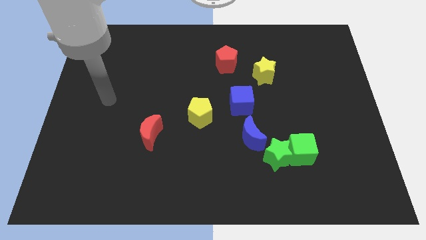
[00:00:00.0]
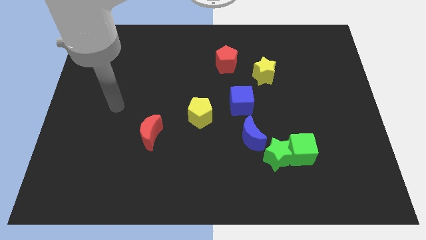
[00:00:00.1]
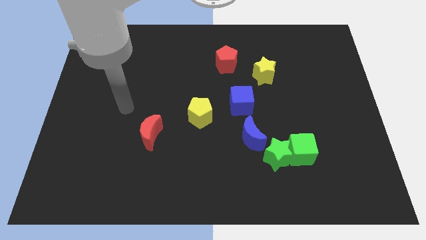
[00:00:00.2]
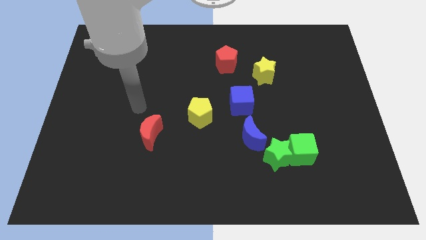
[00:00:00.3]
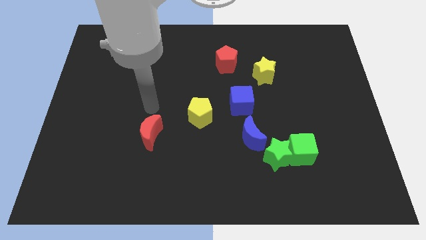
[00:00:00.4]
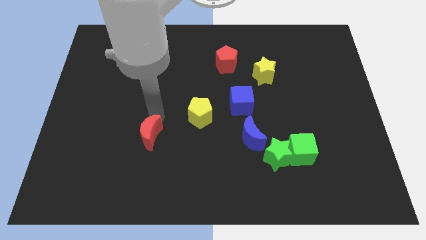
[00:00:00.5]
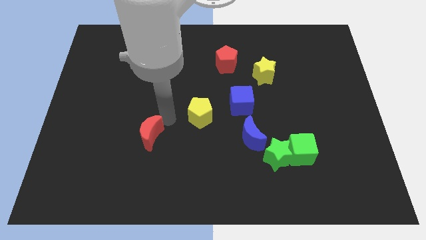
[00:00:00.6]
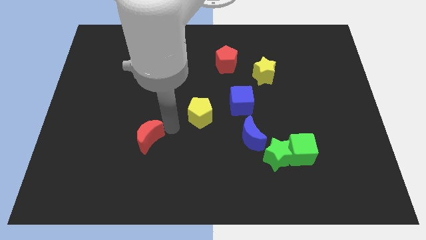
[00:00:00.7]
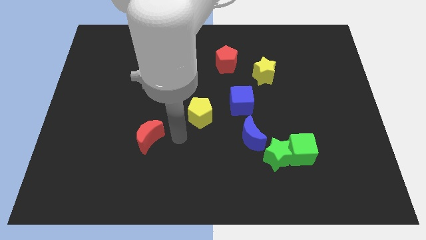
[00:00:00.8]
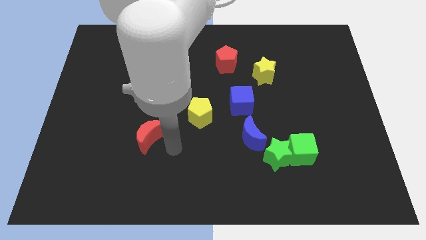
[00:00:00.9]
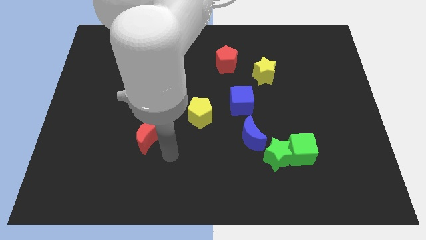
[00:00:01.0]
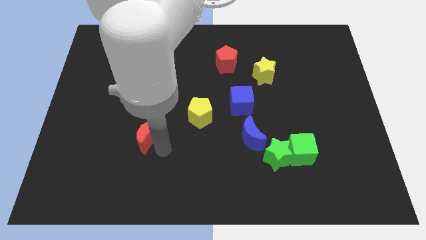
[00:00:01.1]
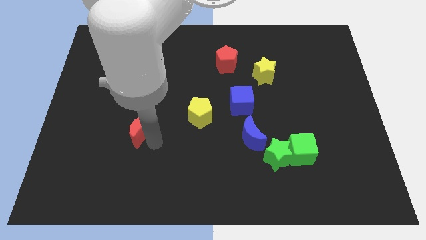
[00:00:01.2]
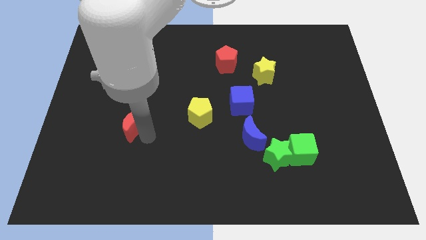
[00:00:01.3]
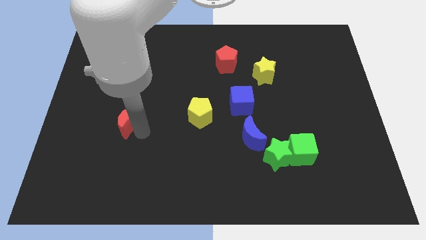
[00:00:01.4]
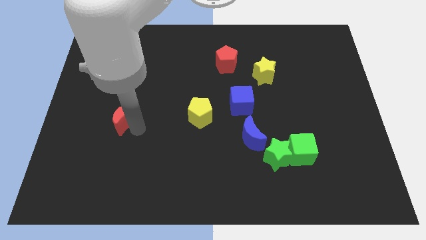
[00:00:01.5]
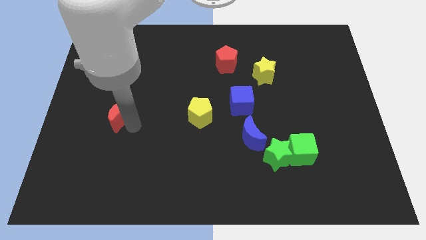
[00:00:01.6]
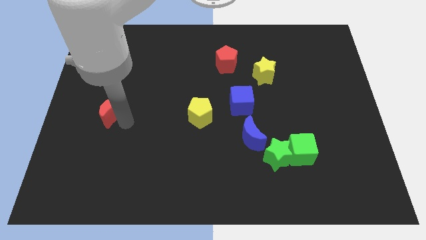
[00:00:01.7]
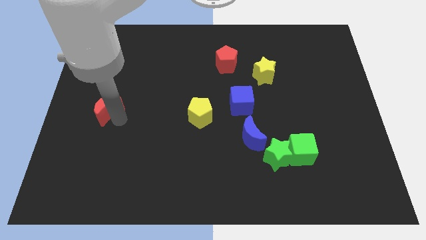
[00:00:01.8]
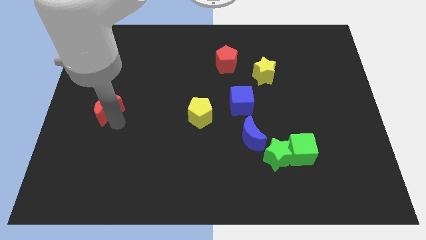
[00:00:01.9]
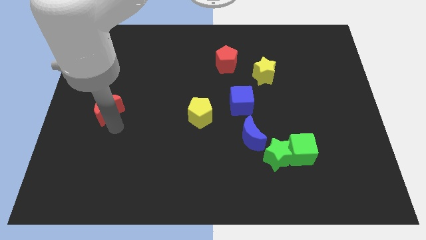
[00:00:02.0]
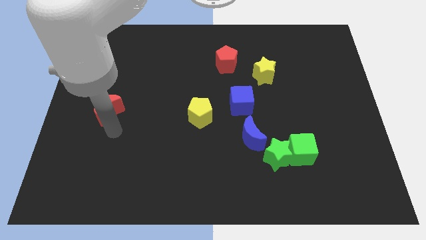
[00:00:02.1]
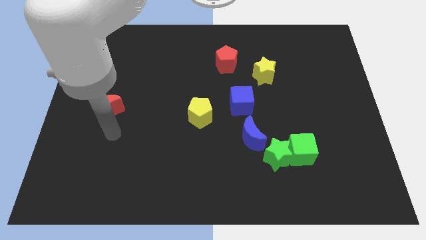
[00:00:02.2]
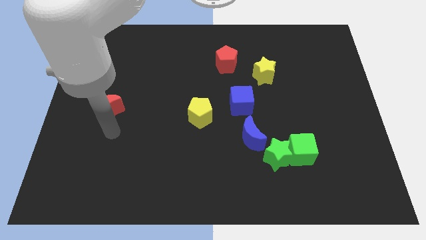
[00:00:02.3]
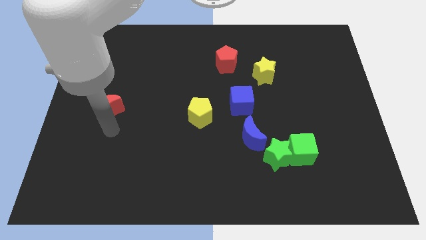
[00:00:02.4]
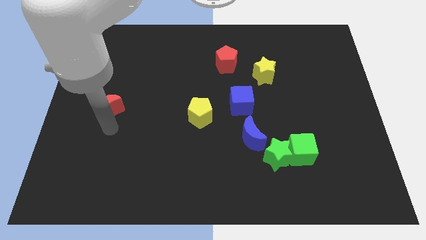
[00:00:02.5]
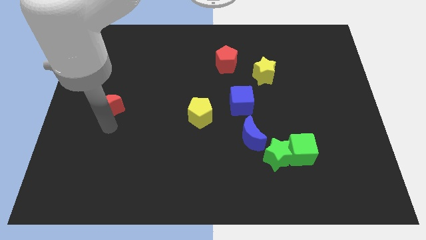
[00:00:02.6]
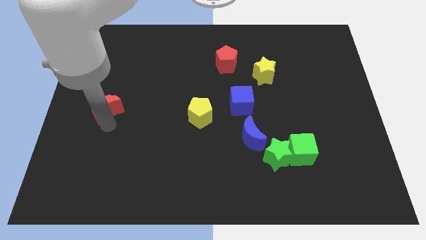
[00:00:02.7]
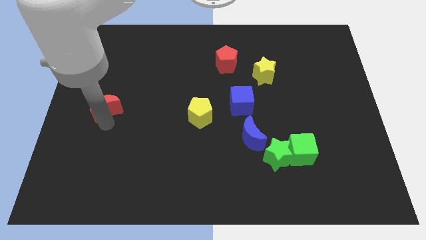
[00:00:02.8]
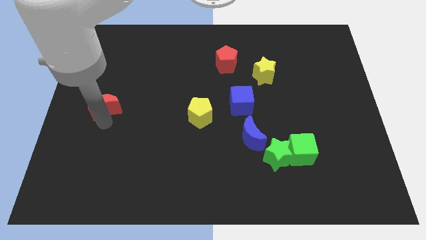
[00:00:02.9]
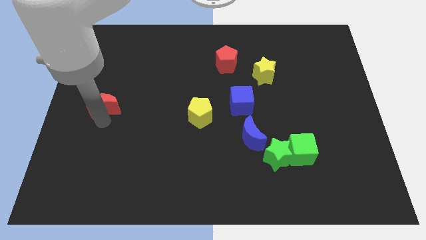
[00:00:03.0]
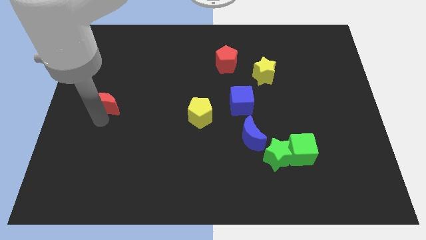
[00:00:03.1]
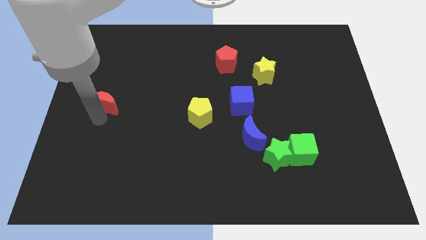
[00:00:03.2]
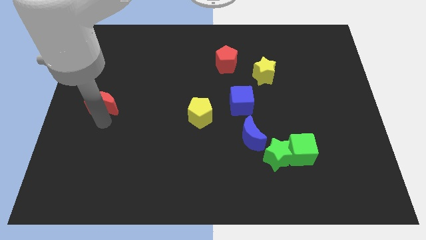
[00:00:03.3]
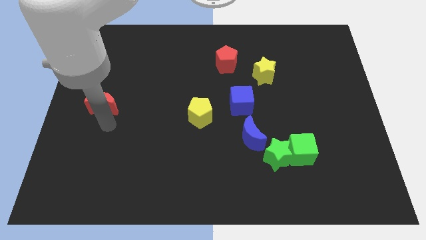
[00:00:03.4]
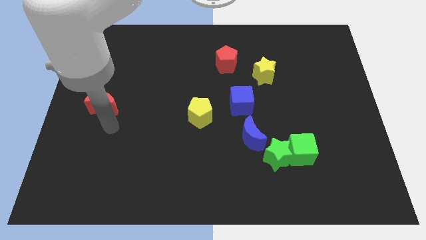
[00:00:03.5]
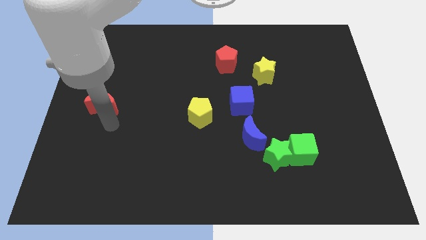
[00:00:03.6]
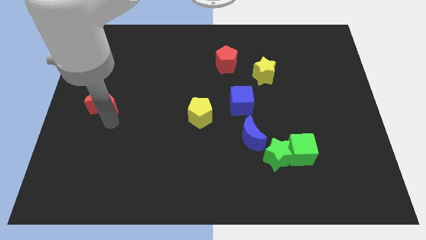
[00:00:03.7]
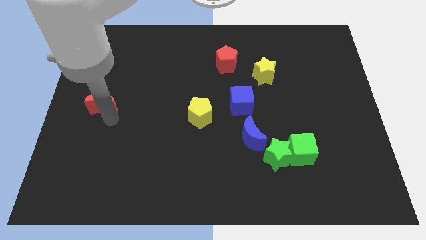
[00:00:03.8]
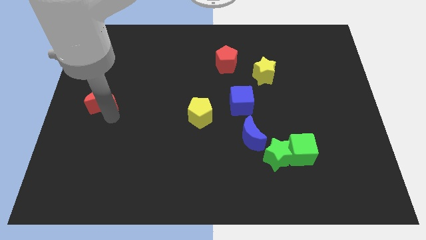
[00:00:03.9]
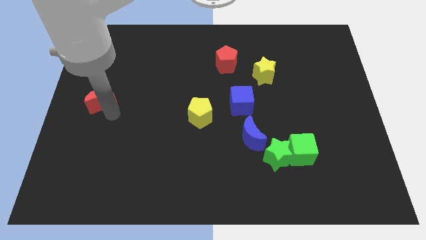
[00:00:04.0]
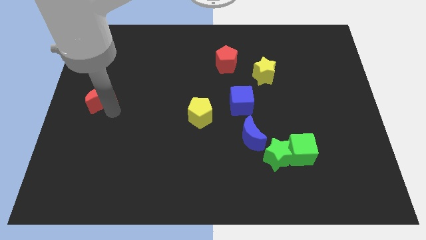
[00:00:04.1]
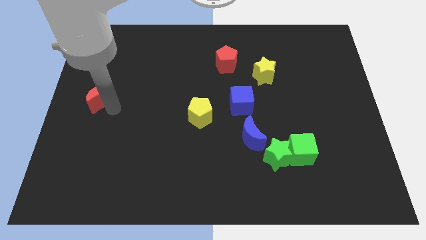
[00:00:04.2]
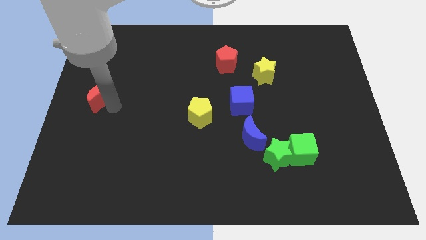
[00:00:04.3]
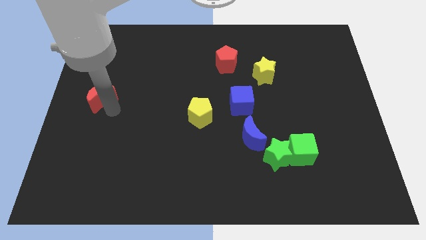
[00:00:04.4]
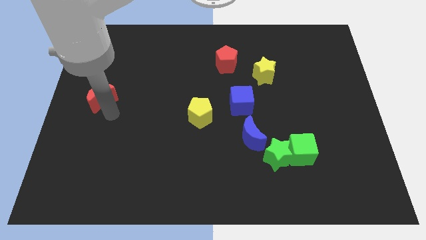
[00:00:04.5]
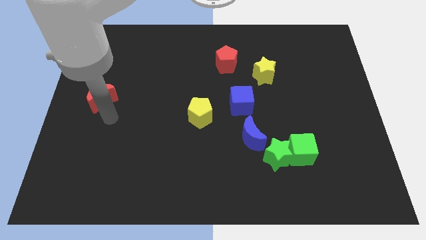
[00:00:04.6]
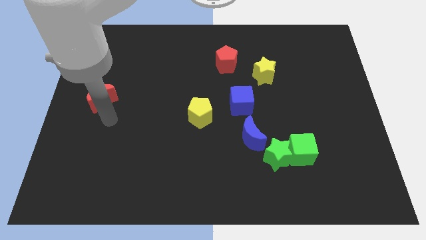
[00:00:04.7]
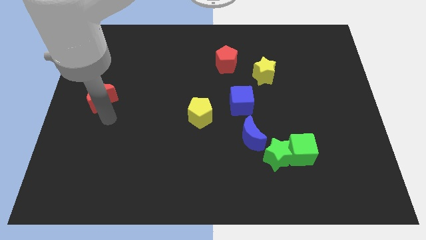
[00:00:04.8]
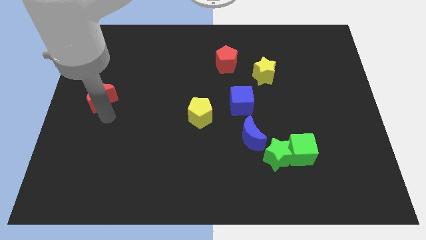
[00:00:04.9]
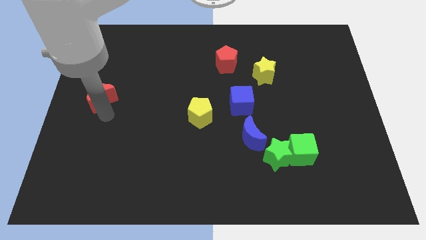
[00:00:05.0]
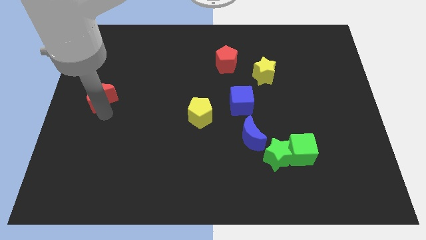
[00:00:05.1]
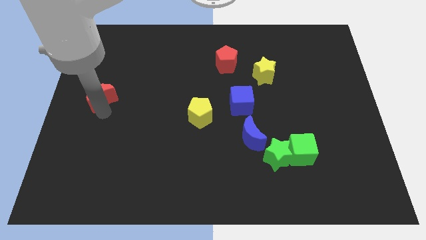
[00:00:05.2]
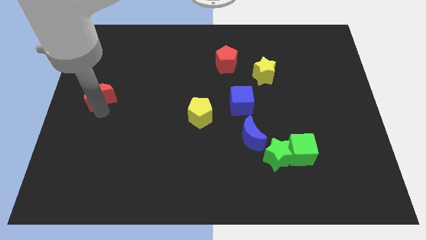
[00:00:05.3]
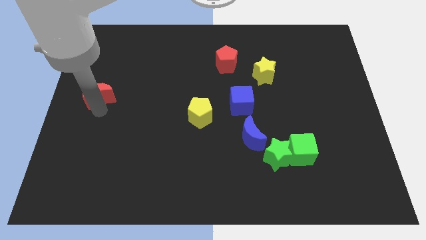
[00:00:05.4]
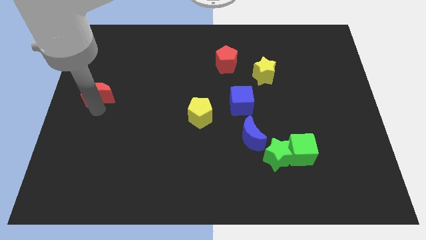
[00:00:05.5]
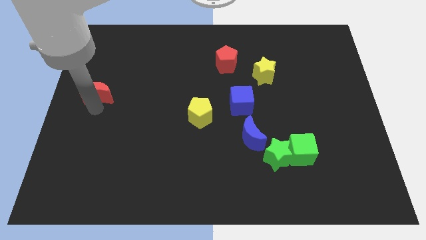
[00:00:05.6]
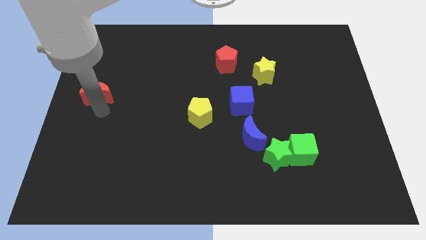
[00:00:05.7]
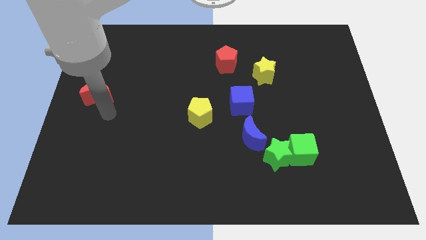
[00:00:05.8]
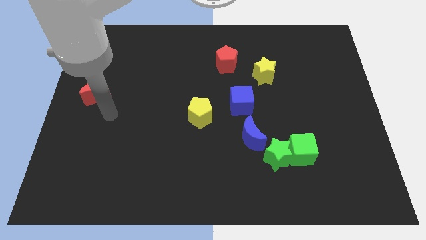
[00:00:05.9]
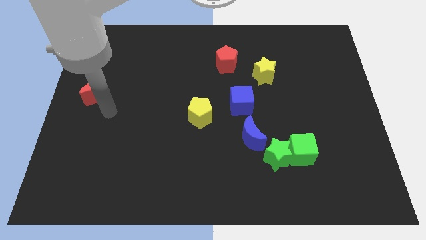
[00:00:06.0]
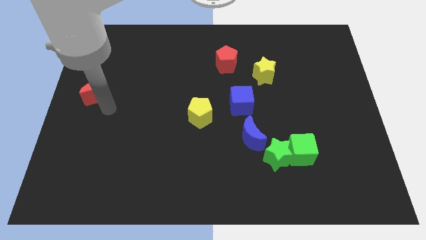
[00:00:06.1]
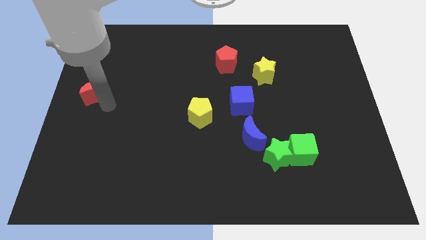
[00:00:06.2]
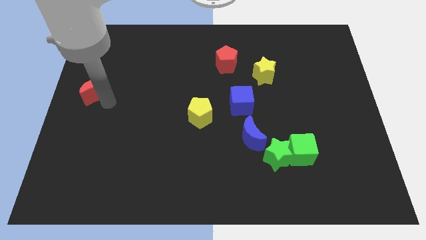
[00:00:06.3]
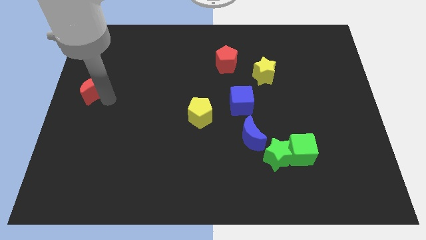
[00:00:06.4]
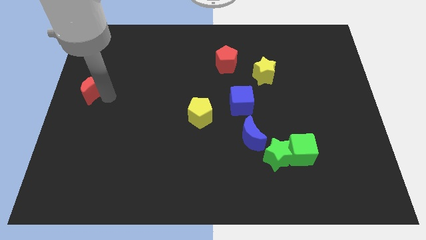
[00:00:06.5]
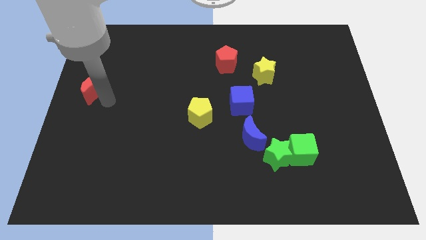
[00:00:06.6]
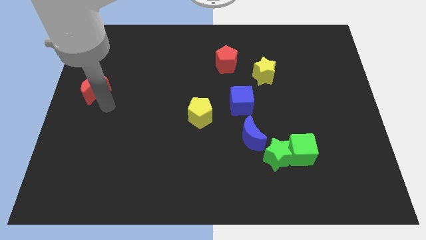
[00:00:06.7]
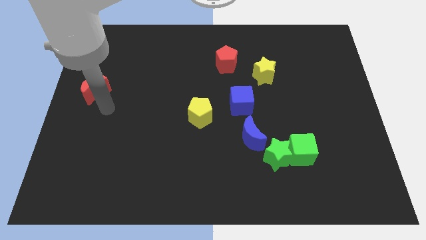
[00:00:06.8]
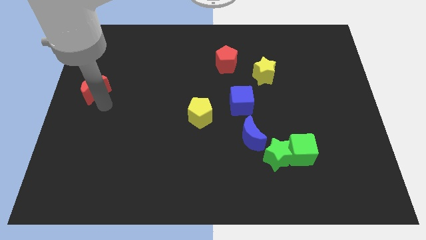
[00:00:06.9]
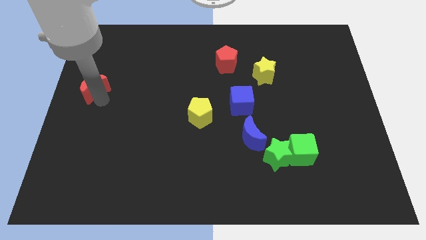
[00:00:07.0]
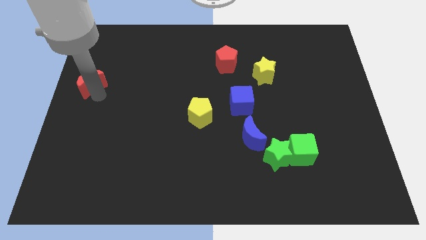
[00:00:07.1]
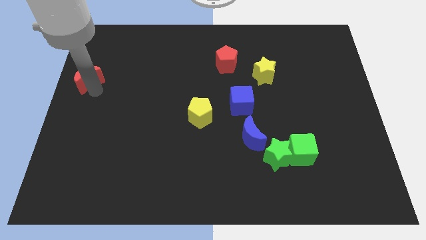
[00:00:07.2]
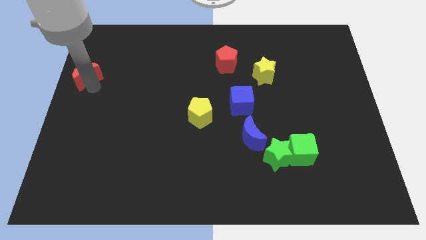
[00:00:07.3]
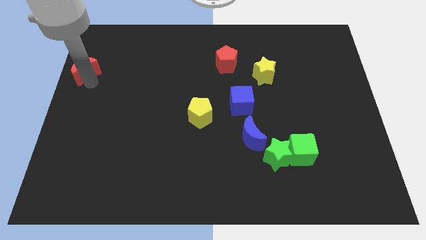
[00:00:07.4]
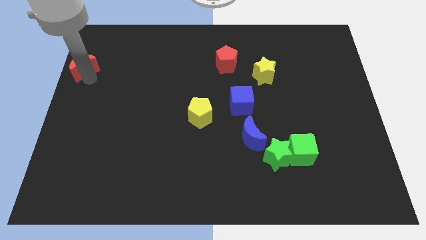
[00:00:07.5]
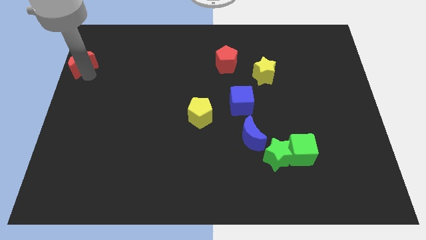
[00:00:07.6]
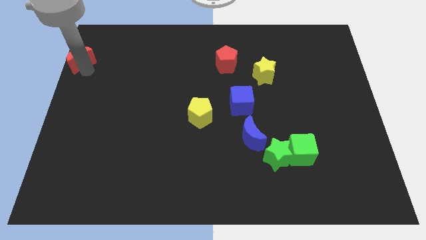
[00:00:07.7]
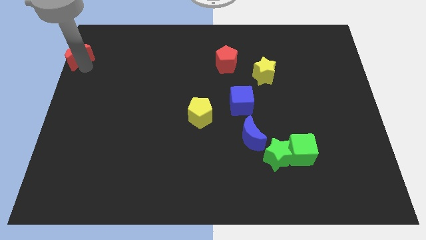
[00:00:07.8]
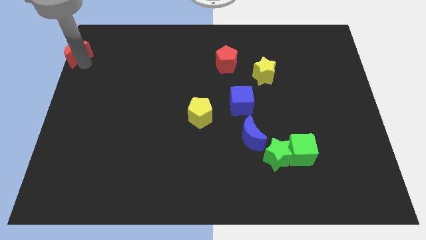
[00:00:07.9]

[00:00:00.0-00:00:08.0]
push the red moon to the top left of the board
